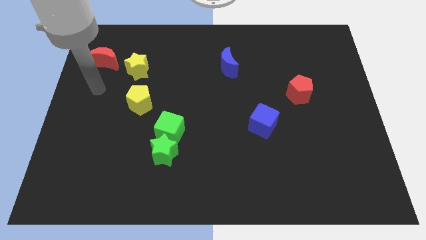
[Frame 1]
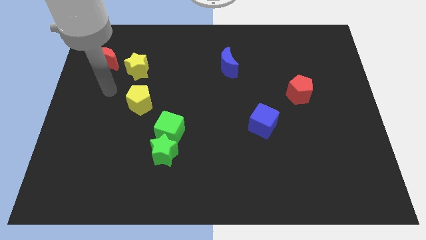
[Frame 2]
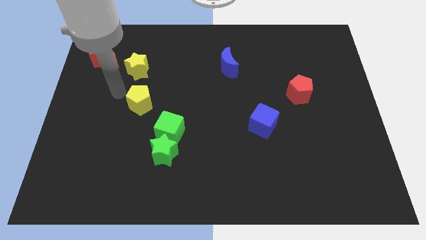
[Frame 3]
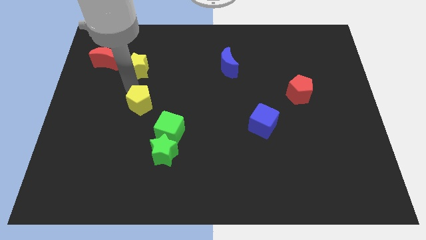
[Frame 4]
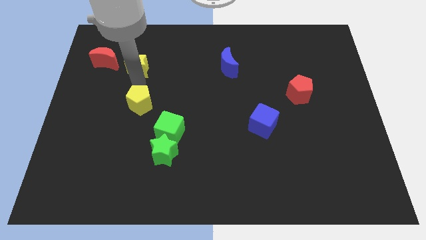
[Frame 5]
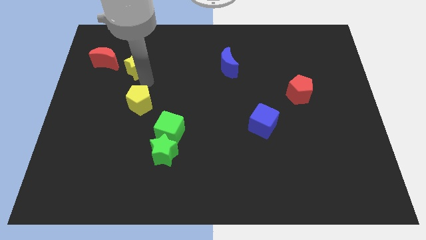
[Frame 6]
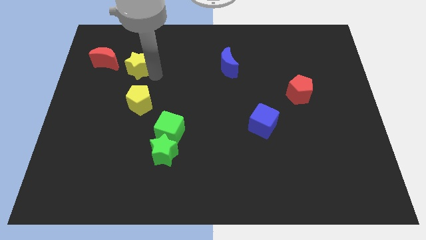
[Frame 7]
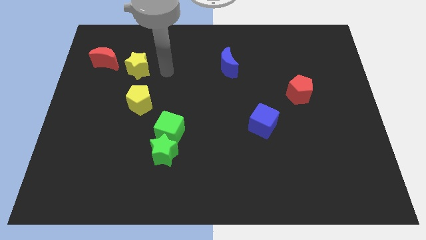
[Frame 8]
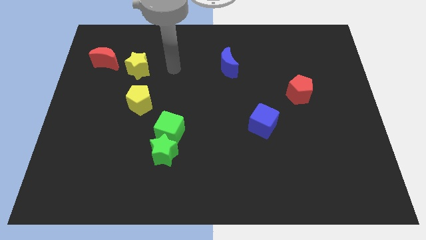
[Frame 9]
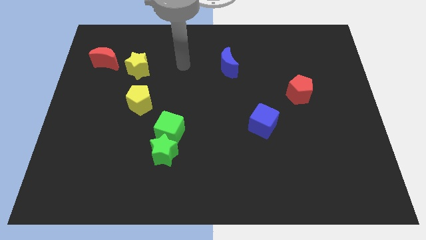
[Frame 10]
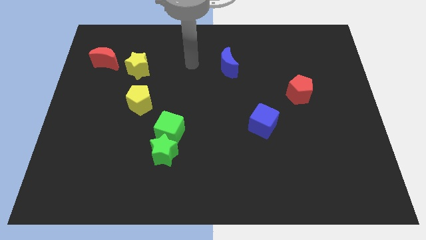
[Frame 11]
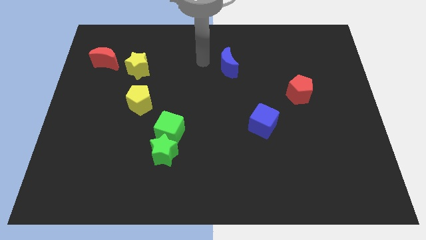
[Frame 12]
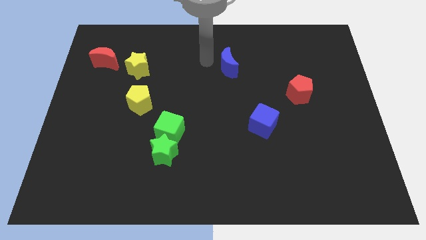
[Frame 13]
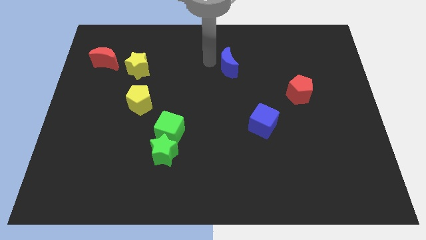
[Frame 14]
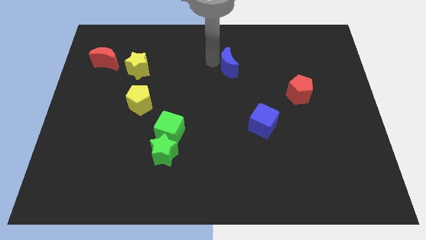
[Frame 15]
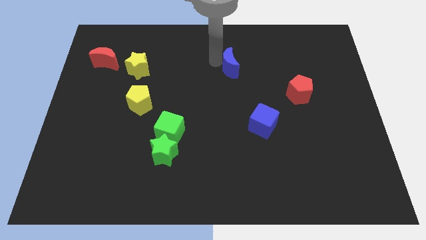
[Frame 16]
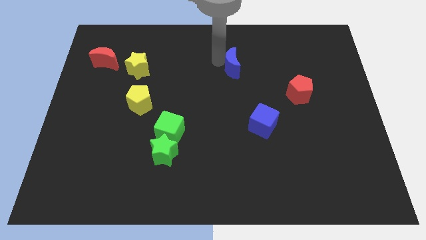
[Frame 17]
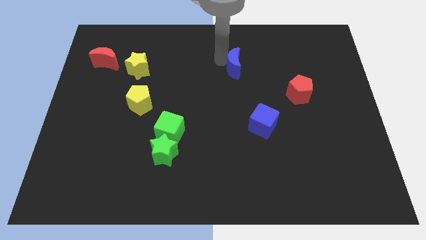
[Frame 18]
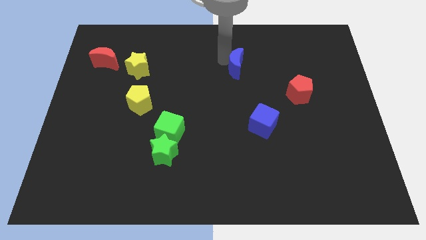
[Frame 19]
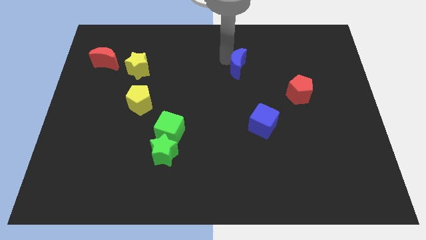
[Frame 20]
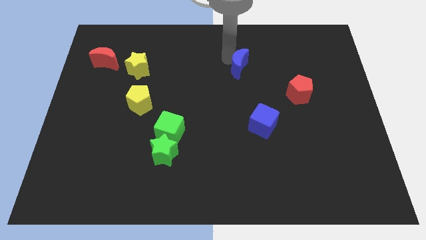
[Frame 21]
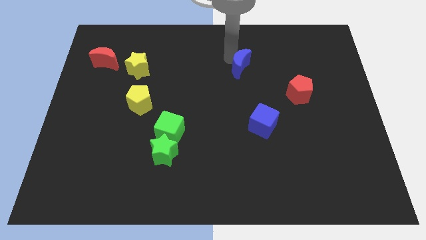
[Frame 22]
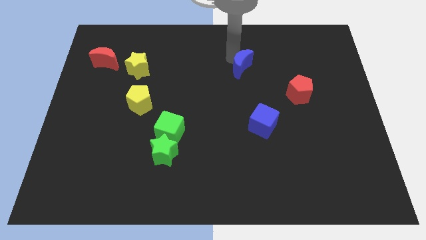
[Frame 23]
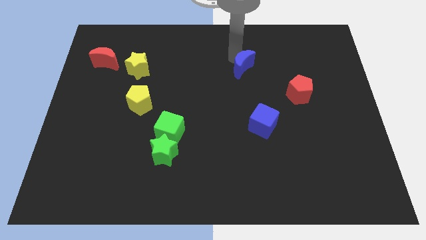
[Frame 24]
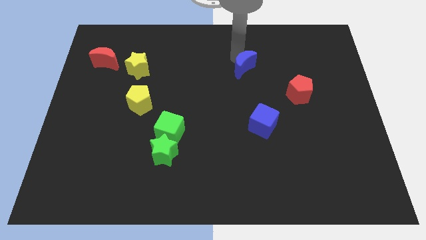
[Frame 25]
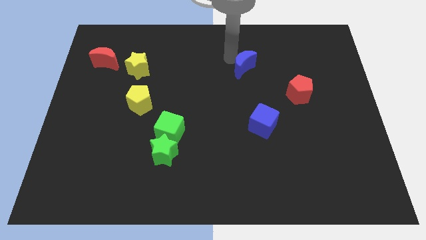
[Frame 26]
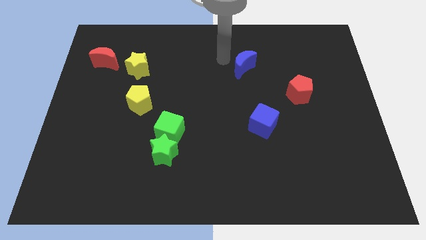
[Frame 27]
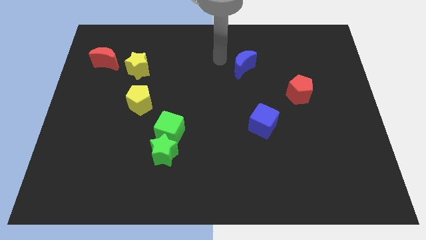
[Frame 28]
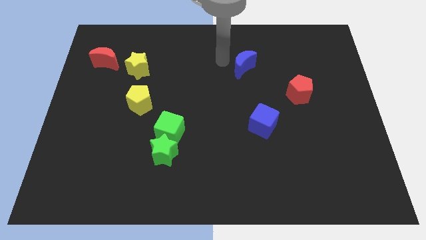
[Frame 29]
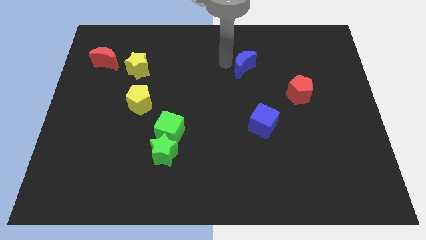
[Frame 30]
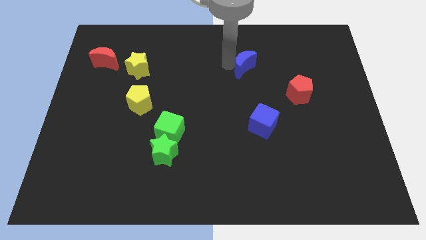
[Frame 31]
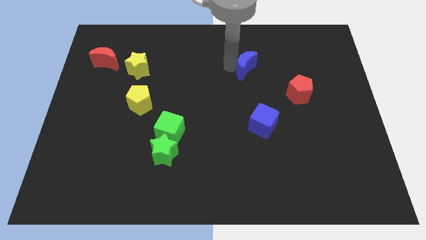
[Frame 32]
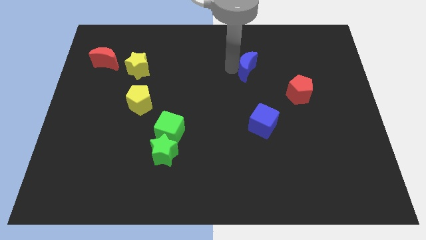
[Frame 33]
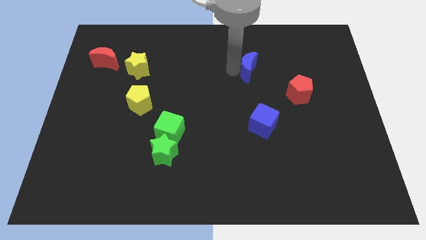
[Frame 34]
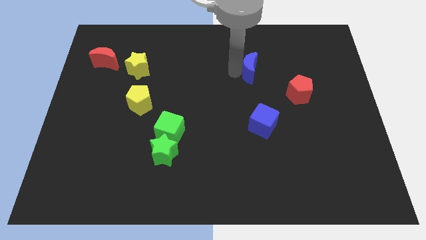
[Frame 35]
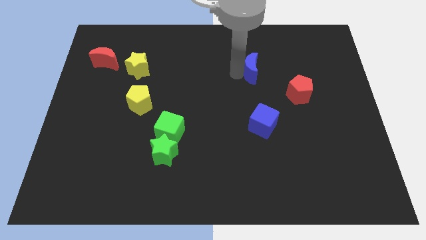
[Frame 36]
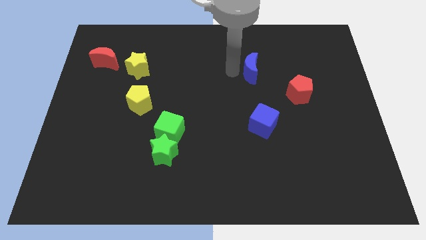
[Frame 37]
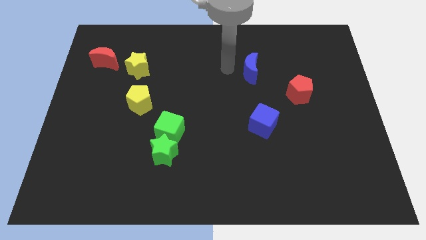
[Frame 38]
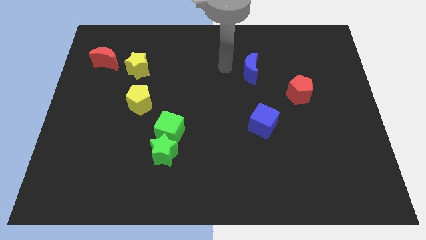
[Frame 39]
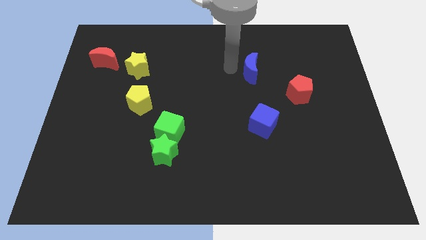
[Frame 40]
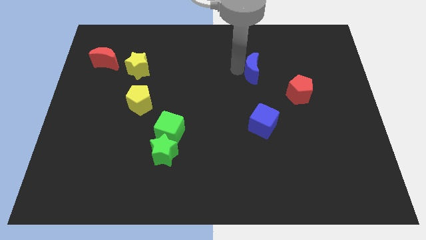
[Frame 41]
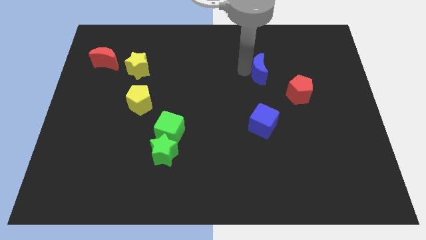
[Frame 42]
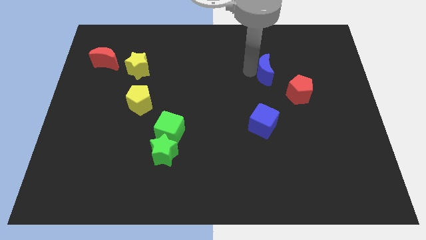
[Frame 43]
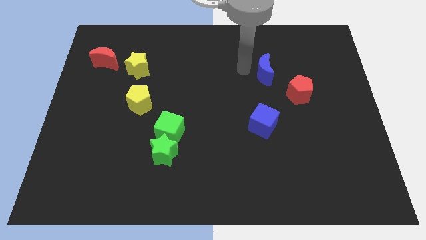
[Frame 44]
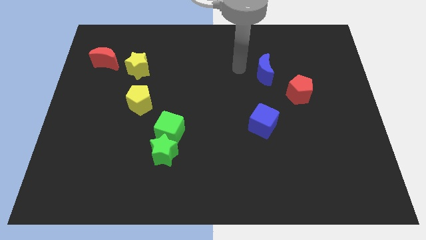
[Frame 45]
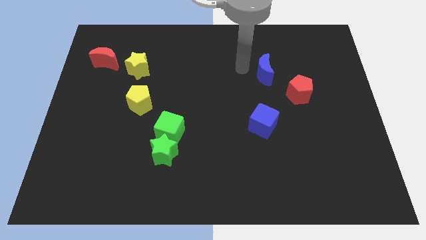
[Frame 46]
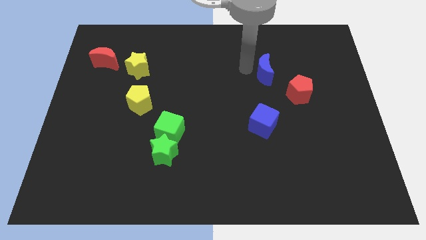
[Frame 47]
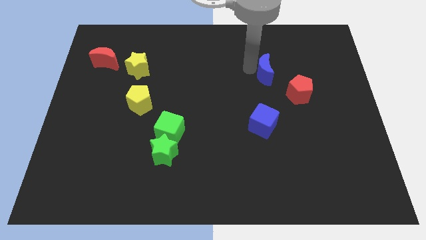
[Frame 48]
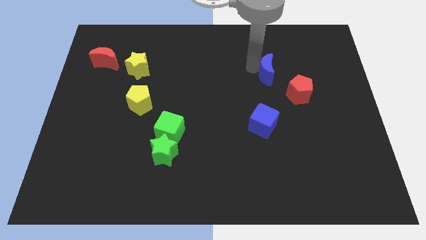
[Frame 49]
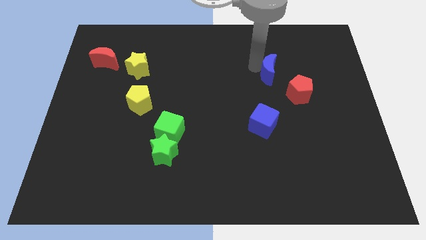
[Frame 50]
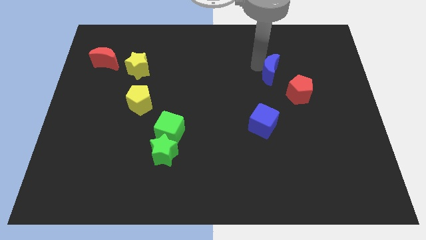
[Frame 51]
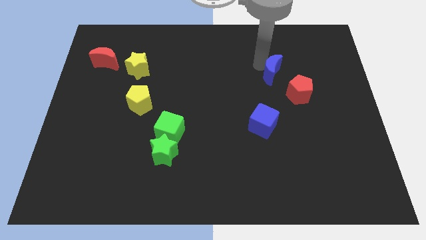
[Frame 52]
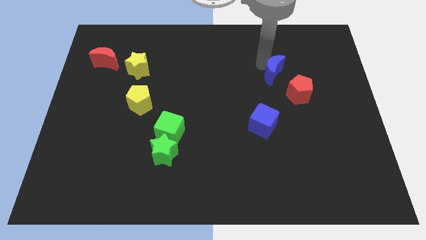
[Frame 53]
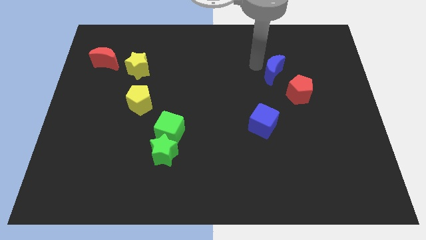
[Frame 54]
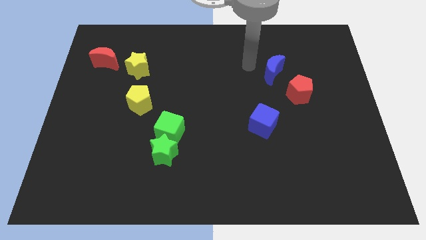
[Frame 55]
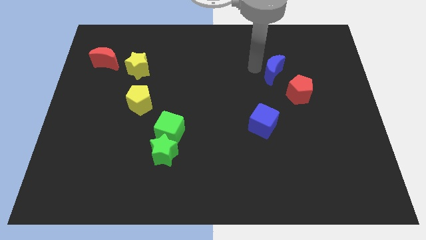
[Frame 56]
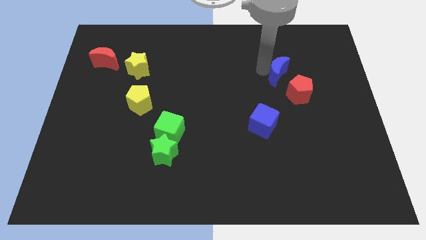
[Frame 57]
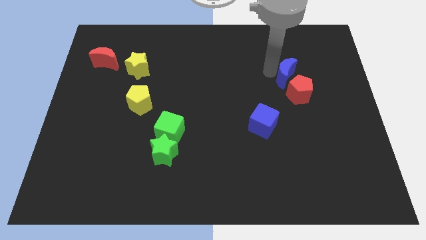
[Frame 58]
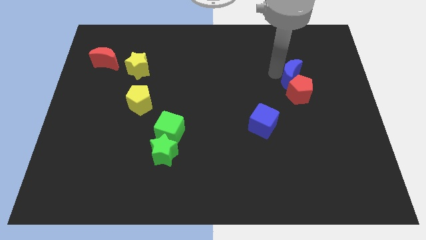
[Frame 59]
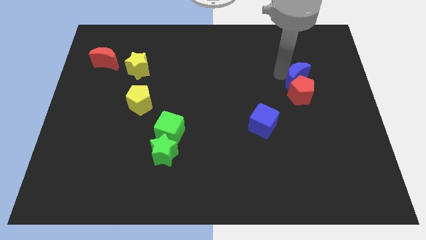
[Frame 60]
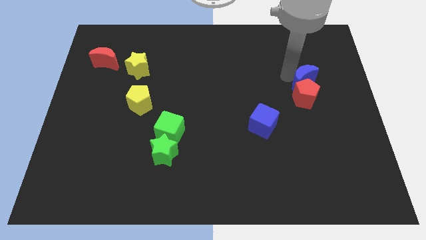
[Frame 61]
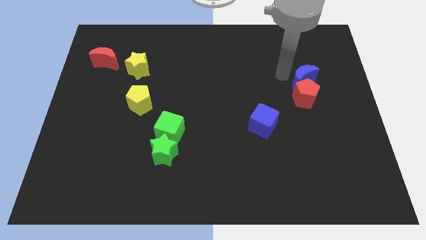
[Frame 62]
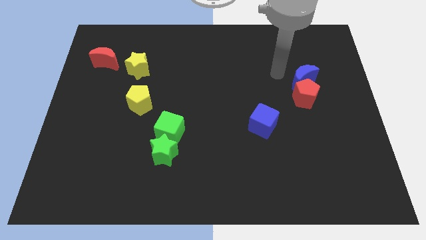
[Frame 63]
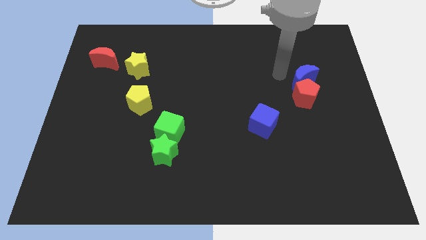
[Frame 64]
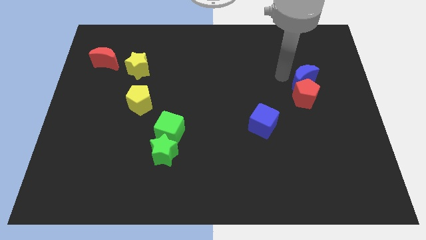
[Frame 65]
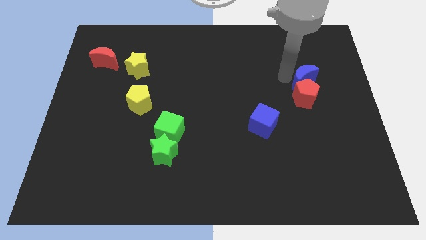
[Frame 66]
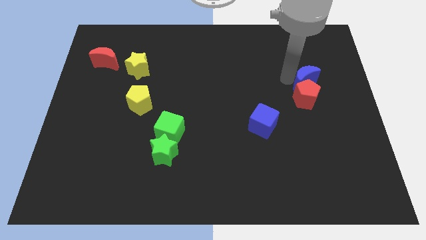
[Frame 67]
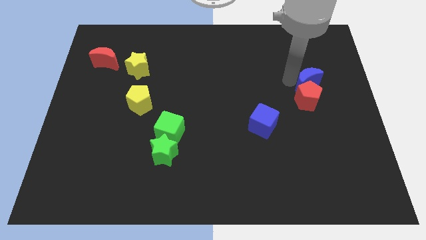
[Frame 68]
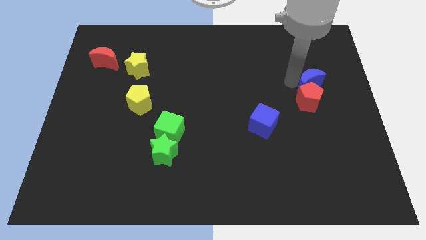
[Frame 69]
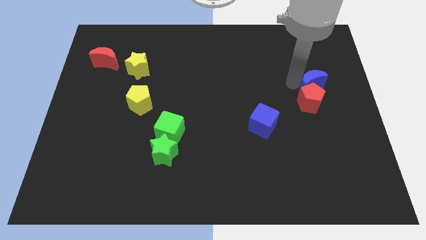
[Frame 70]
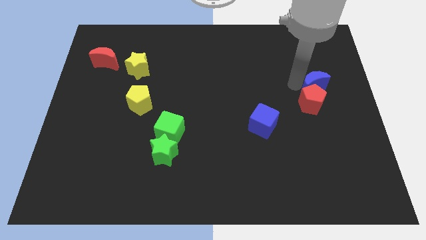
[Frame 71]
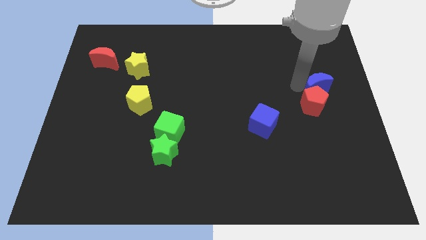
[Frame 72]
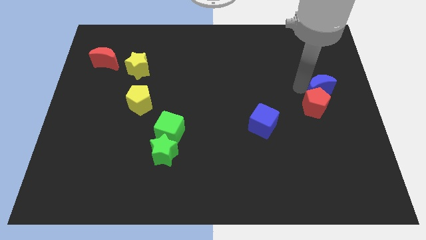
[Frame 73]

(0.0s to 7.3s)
put the blue moon to the right side
